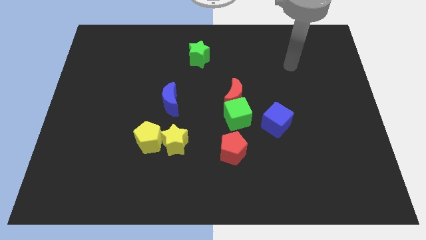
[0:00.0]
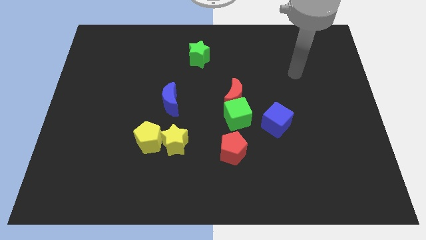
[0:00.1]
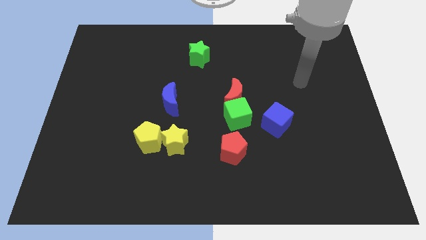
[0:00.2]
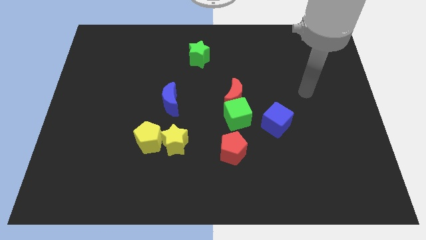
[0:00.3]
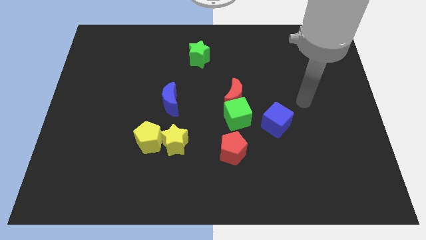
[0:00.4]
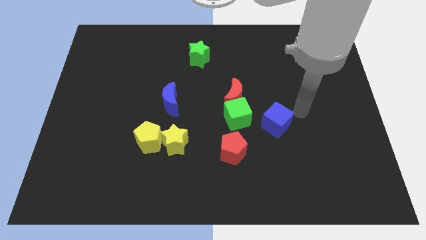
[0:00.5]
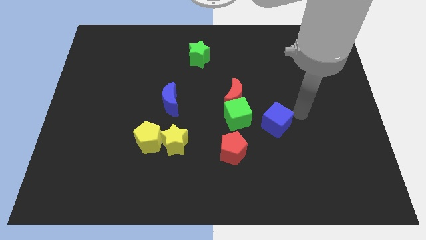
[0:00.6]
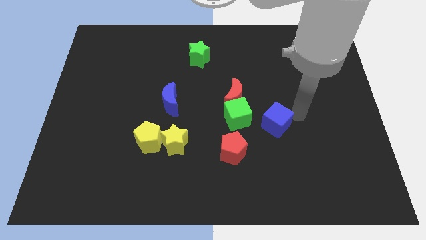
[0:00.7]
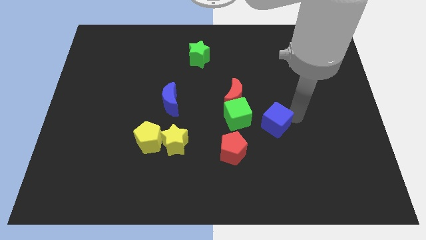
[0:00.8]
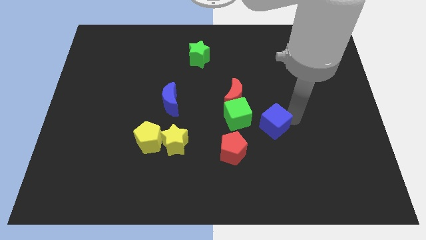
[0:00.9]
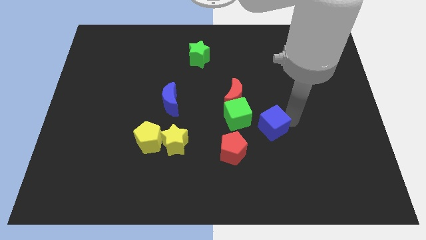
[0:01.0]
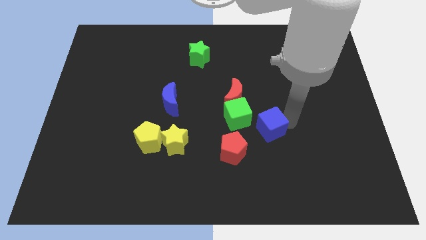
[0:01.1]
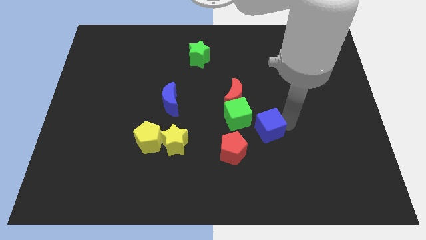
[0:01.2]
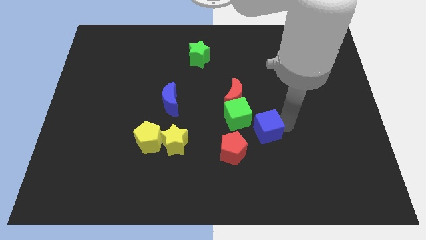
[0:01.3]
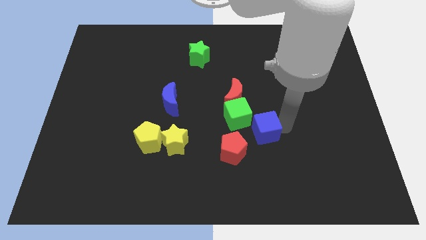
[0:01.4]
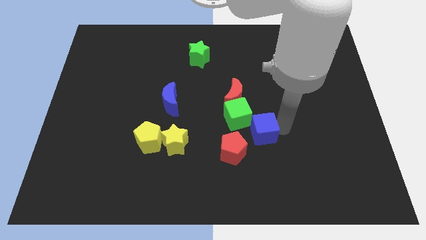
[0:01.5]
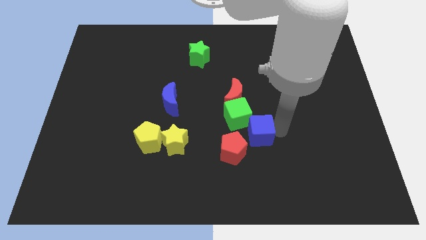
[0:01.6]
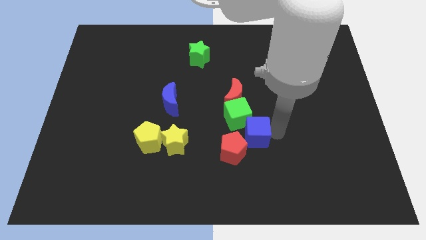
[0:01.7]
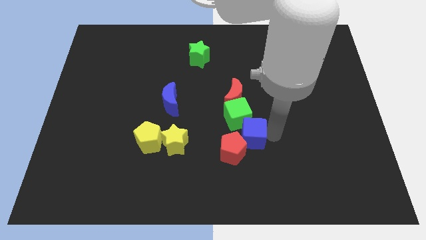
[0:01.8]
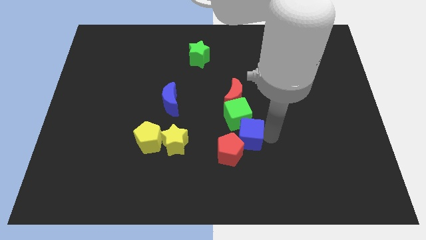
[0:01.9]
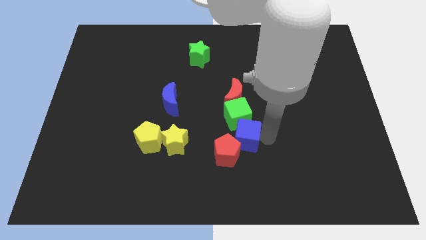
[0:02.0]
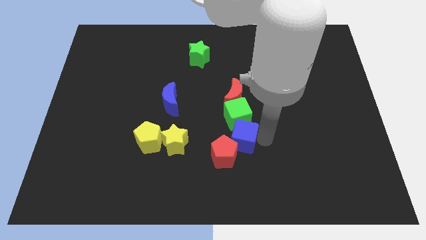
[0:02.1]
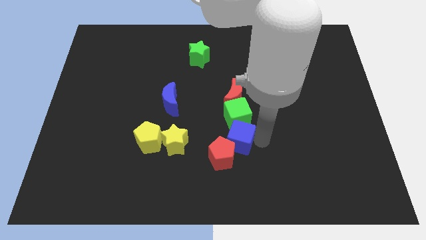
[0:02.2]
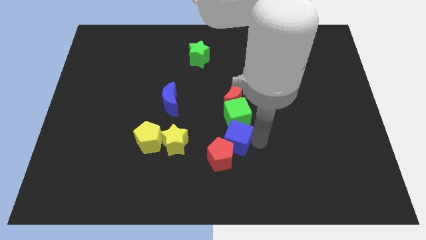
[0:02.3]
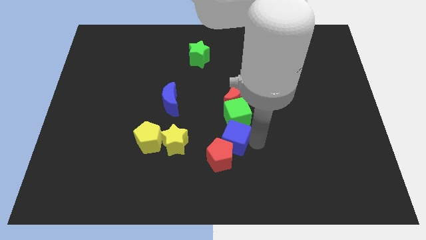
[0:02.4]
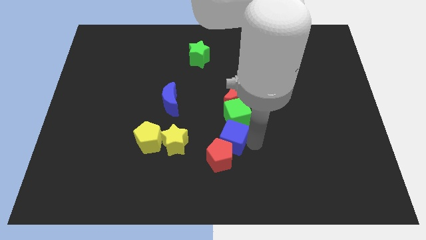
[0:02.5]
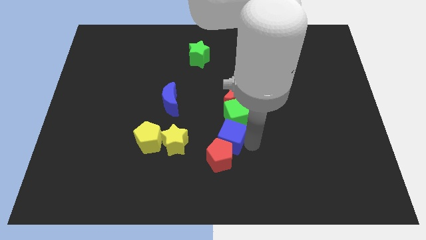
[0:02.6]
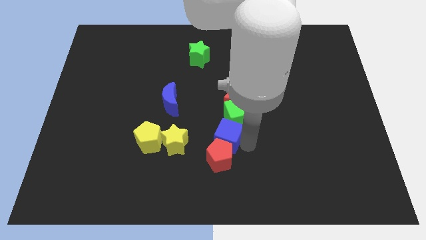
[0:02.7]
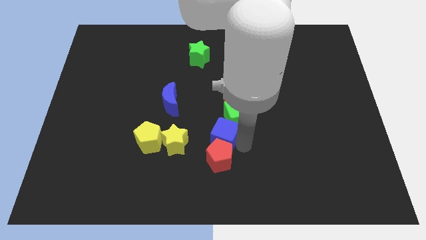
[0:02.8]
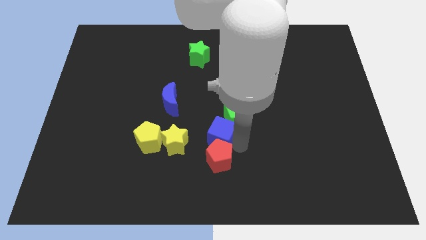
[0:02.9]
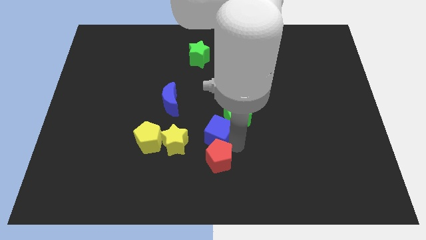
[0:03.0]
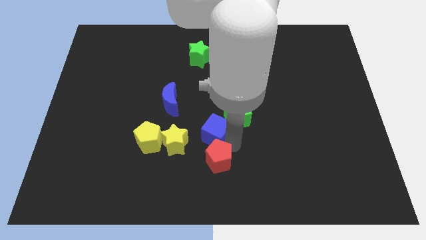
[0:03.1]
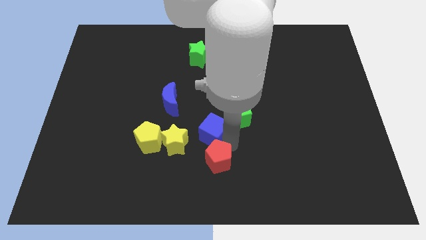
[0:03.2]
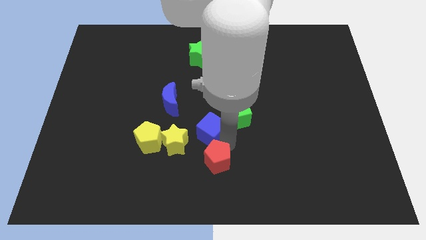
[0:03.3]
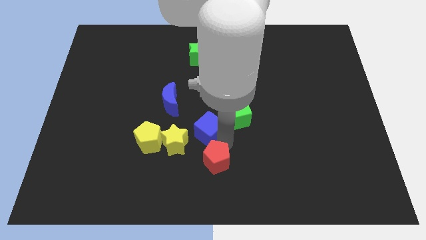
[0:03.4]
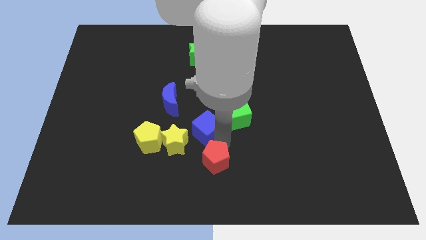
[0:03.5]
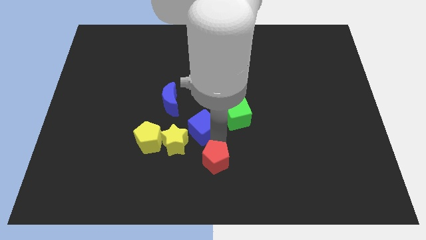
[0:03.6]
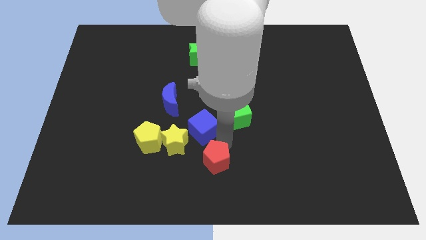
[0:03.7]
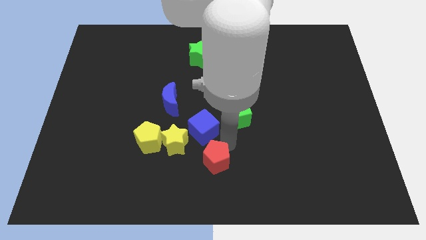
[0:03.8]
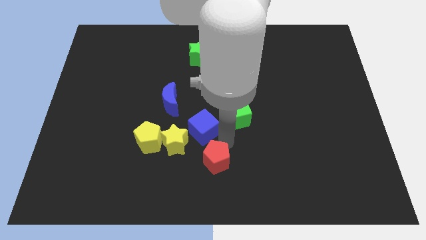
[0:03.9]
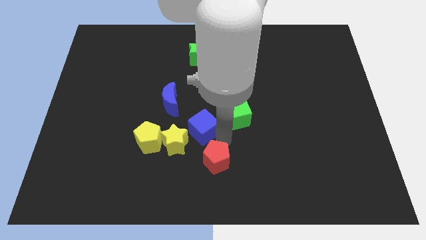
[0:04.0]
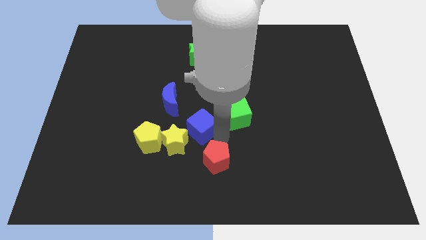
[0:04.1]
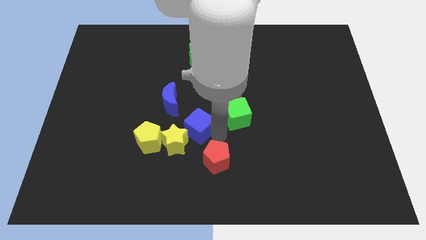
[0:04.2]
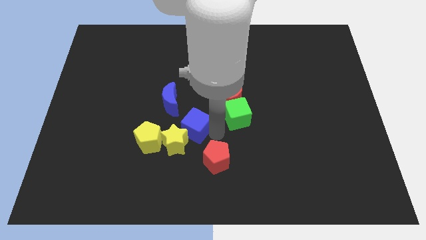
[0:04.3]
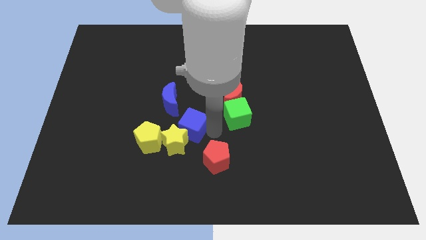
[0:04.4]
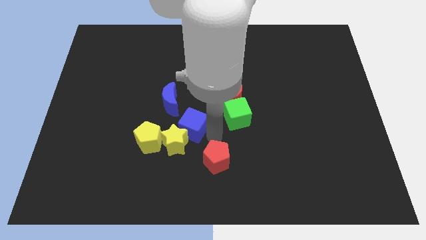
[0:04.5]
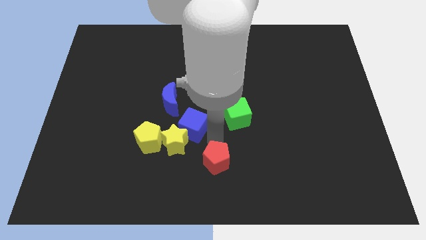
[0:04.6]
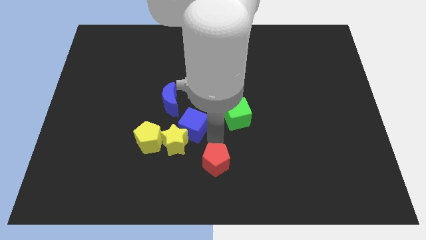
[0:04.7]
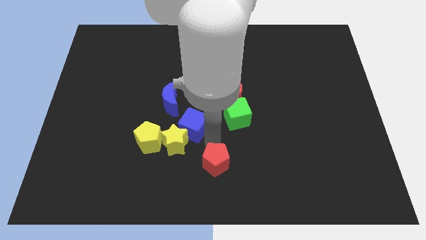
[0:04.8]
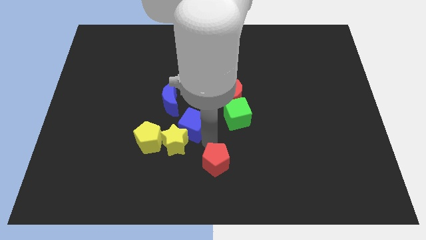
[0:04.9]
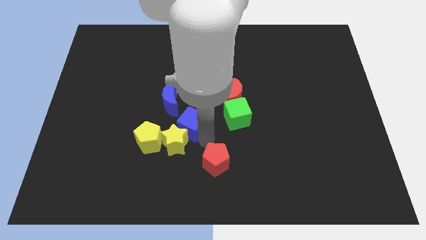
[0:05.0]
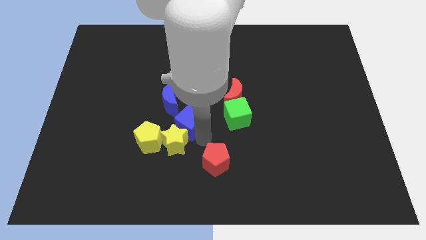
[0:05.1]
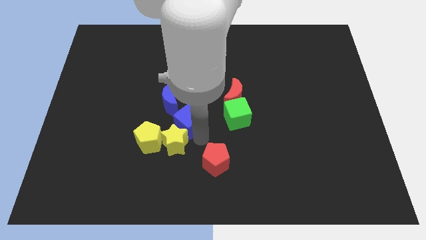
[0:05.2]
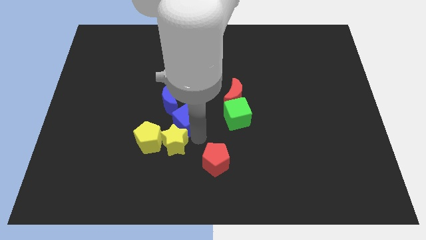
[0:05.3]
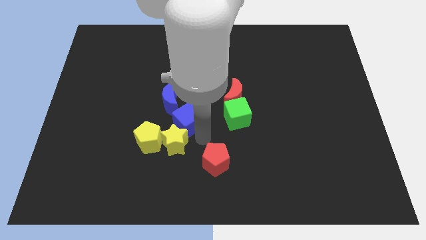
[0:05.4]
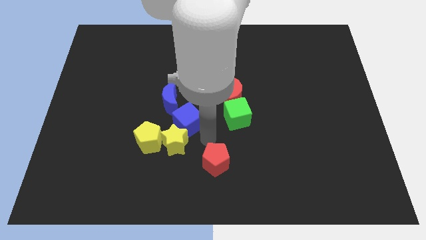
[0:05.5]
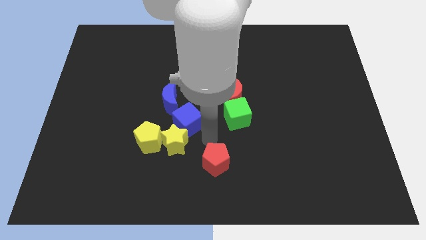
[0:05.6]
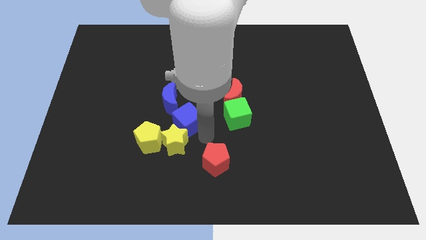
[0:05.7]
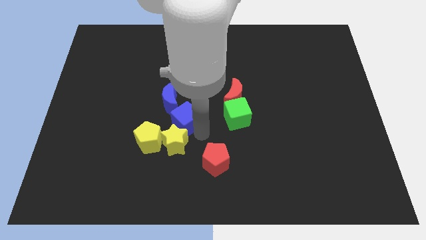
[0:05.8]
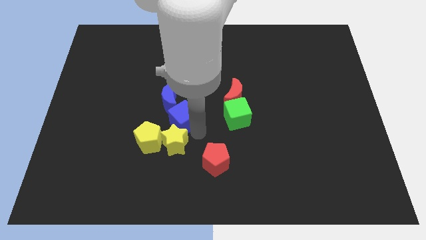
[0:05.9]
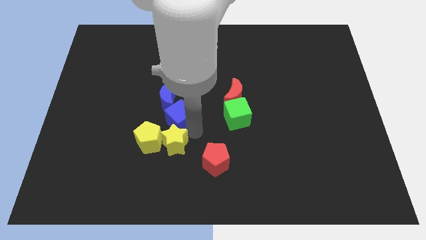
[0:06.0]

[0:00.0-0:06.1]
slide the blue cube diagonally up and to the left of the yellow star

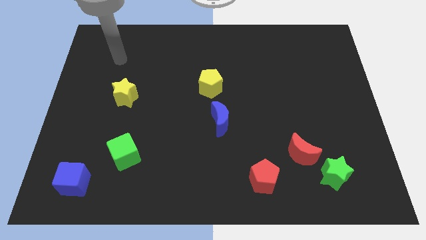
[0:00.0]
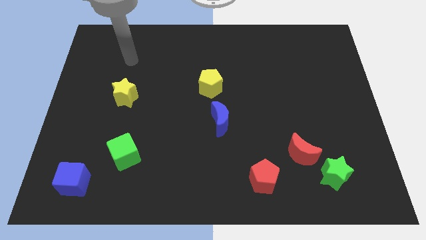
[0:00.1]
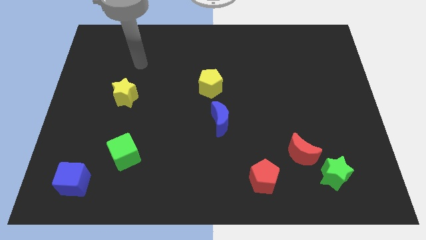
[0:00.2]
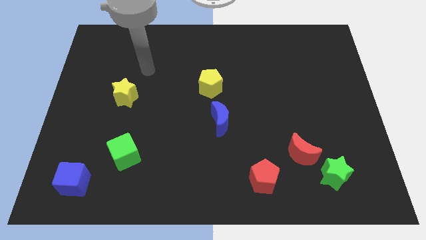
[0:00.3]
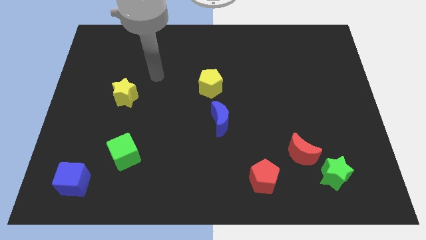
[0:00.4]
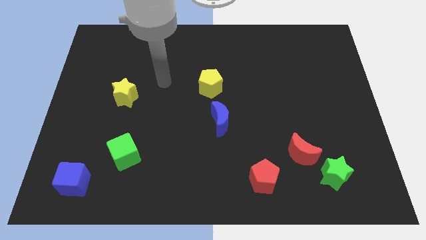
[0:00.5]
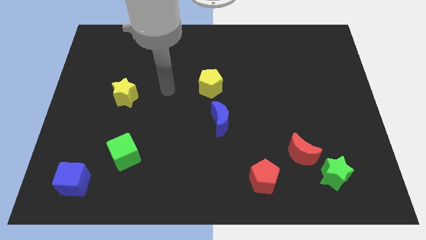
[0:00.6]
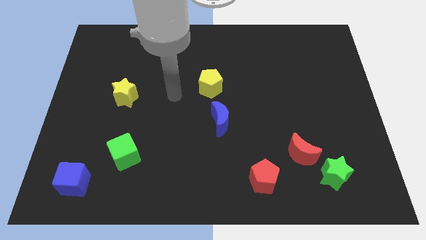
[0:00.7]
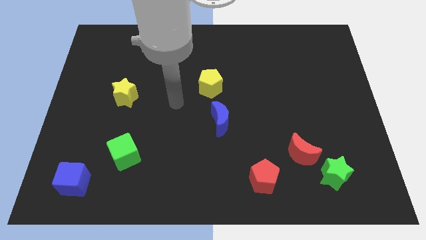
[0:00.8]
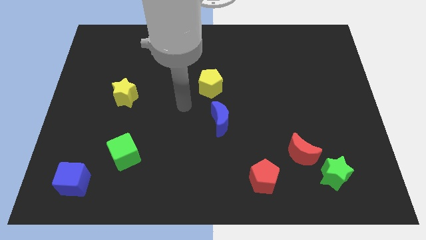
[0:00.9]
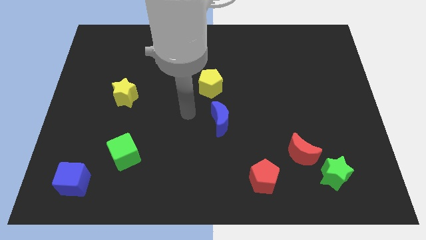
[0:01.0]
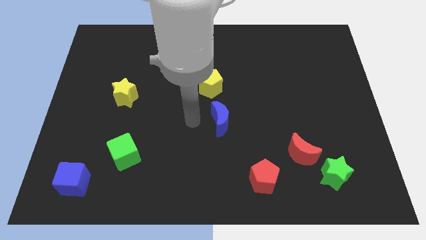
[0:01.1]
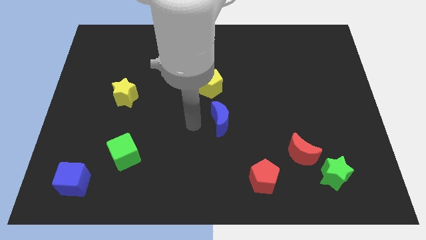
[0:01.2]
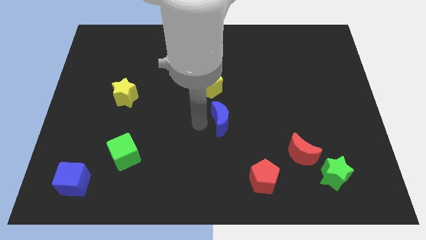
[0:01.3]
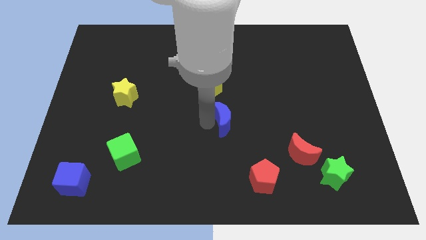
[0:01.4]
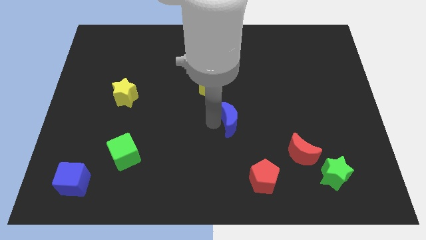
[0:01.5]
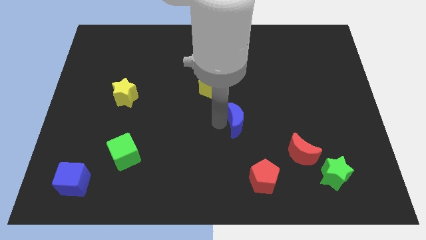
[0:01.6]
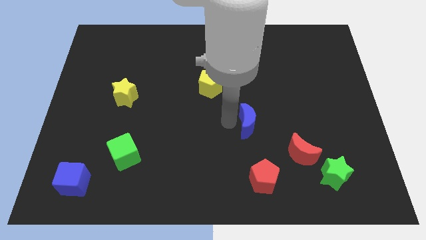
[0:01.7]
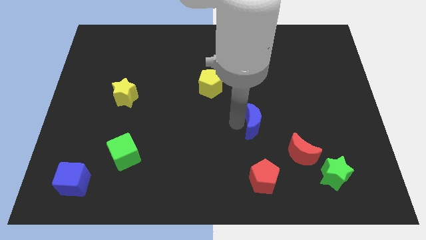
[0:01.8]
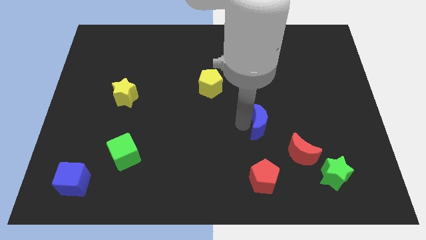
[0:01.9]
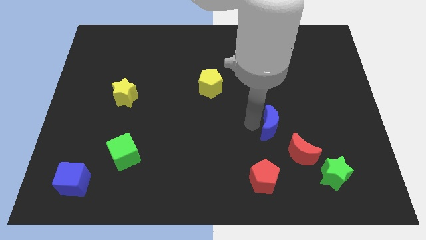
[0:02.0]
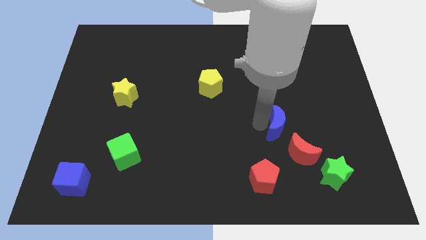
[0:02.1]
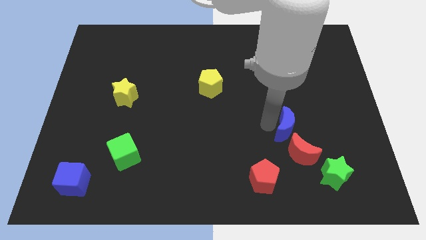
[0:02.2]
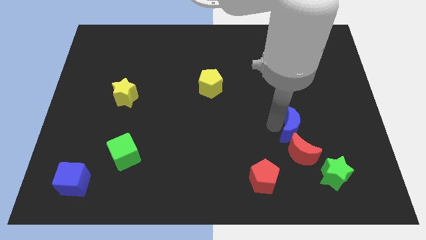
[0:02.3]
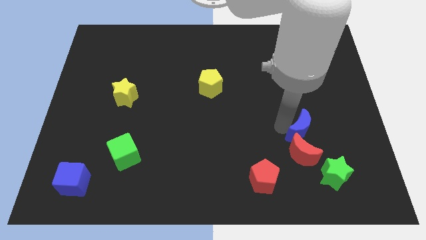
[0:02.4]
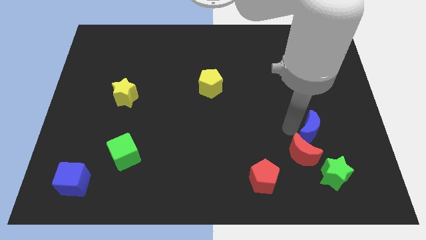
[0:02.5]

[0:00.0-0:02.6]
push the blue moon to the top side of the green star
